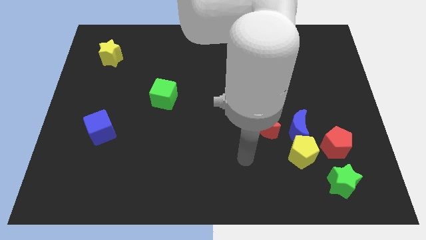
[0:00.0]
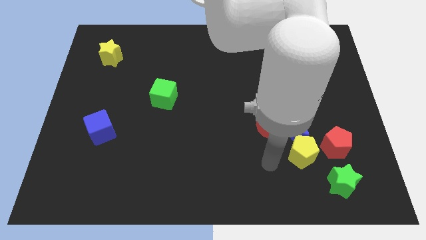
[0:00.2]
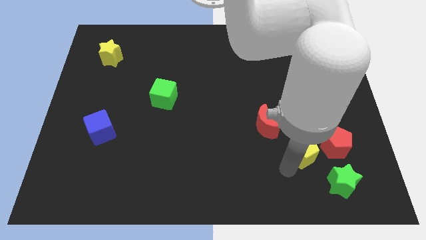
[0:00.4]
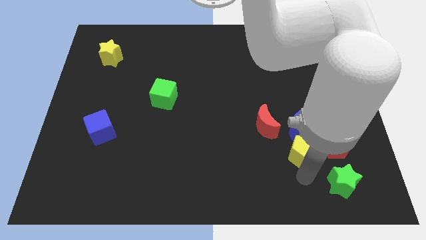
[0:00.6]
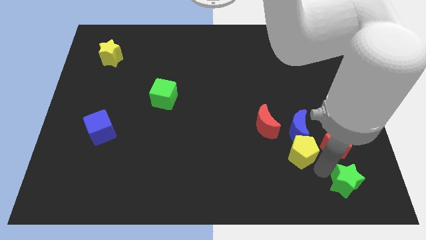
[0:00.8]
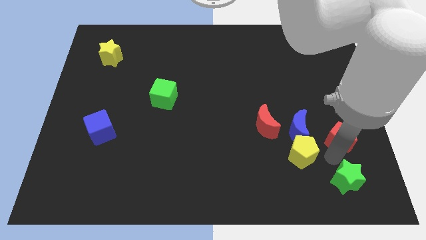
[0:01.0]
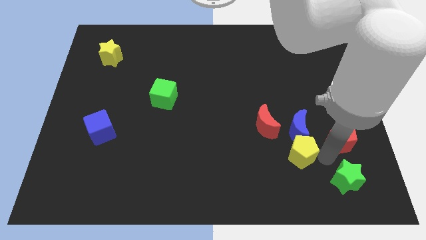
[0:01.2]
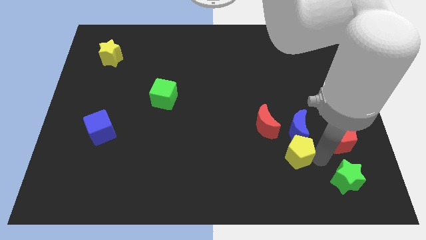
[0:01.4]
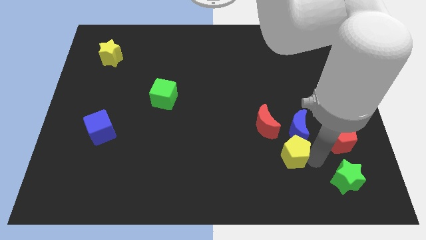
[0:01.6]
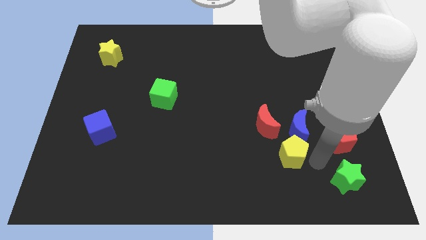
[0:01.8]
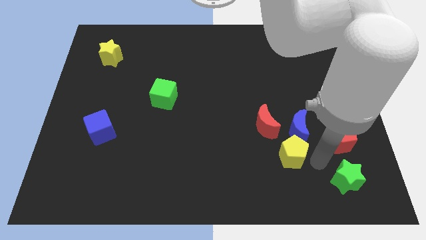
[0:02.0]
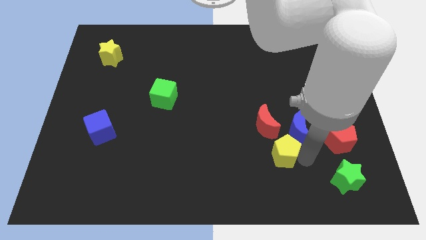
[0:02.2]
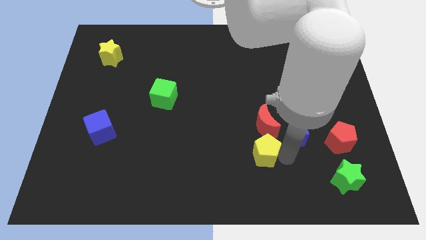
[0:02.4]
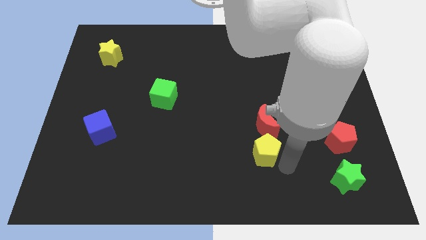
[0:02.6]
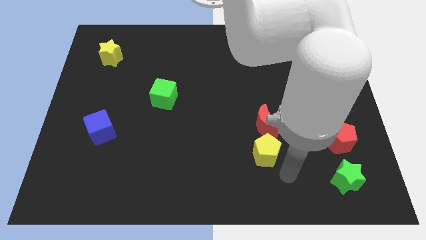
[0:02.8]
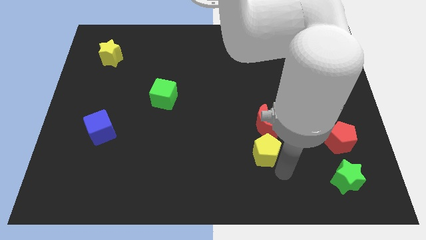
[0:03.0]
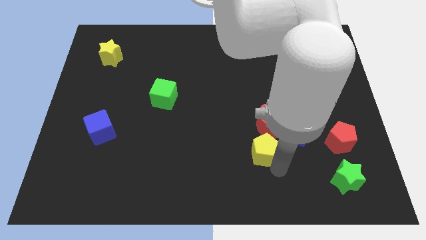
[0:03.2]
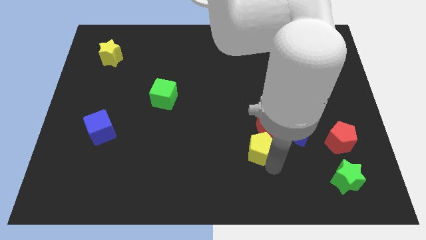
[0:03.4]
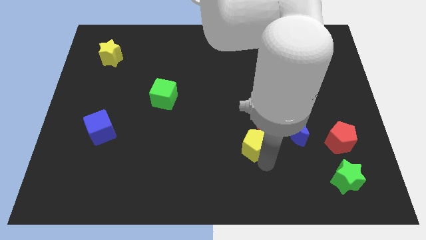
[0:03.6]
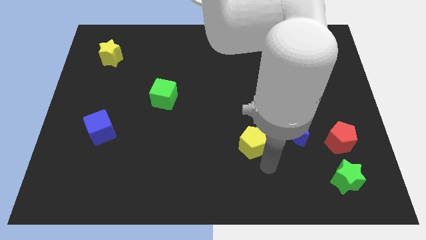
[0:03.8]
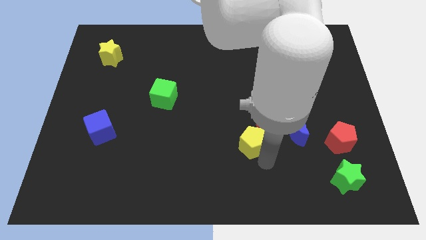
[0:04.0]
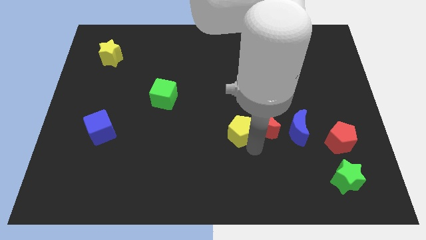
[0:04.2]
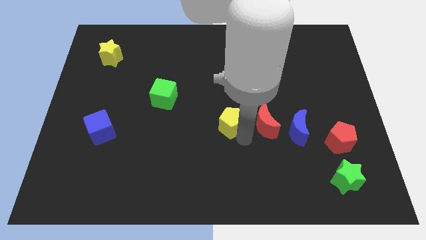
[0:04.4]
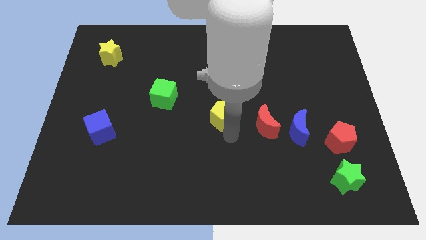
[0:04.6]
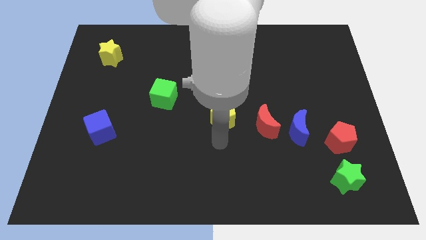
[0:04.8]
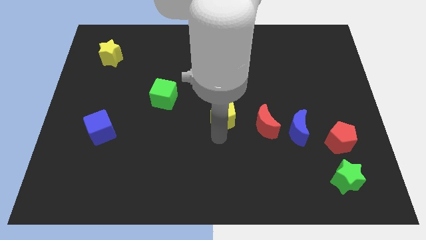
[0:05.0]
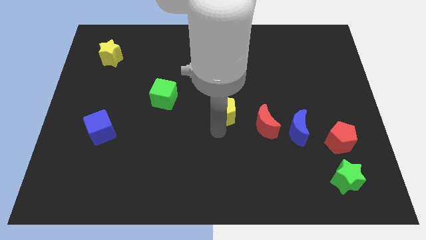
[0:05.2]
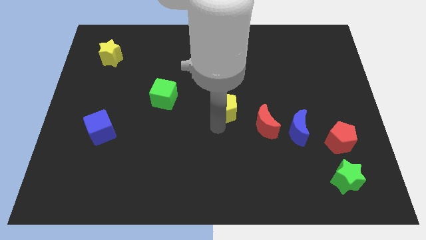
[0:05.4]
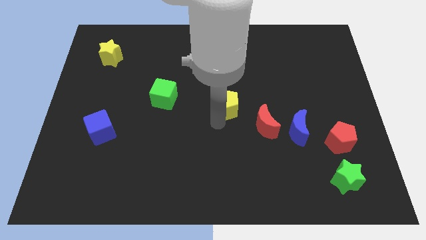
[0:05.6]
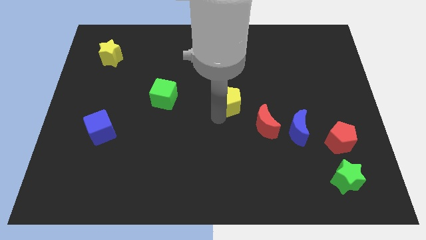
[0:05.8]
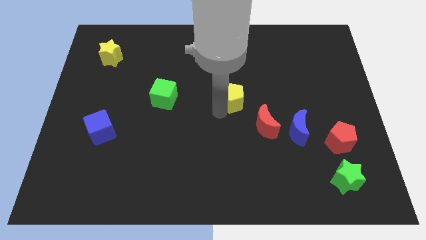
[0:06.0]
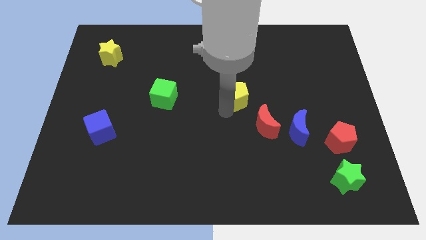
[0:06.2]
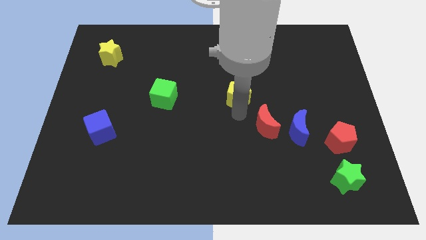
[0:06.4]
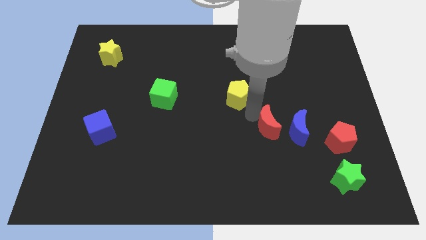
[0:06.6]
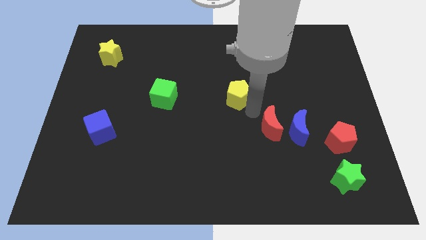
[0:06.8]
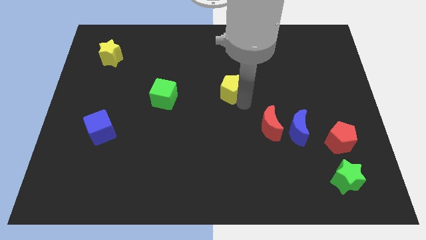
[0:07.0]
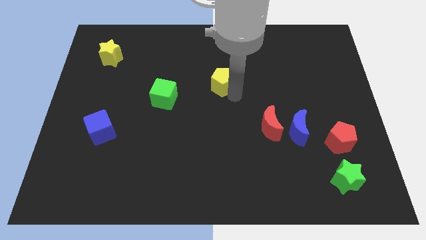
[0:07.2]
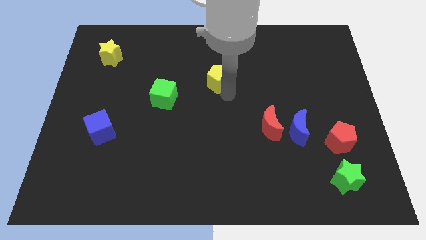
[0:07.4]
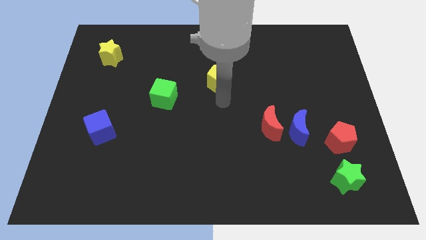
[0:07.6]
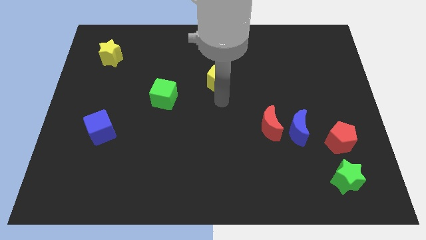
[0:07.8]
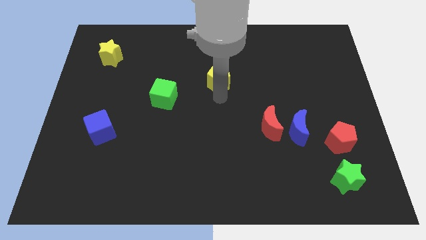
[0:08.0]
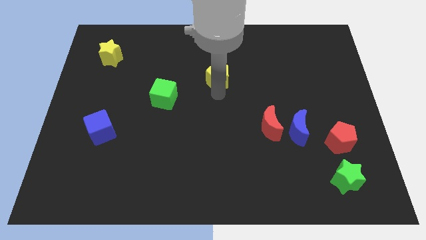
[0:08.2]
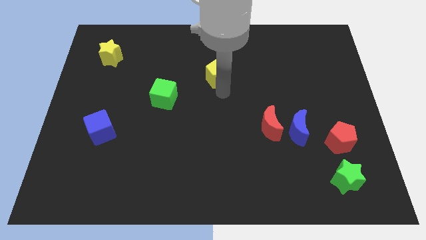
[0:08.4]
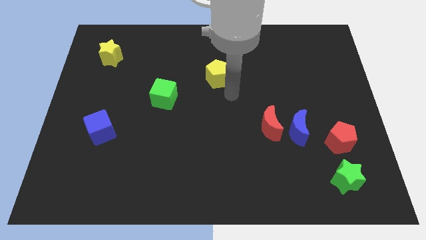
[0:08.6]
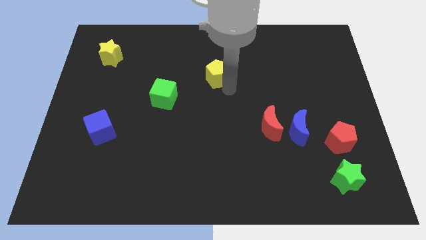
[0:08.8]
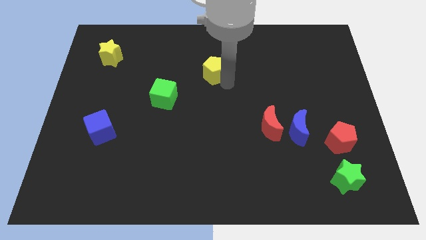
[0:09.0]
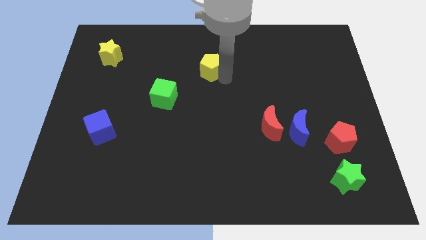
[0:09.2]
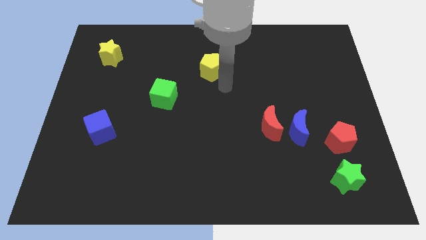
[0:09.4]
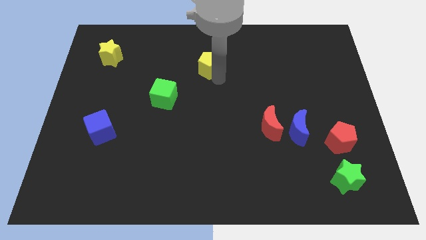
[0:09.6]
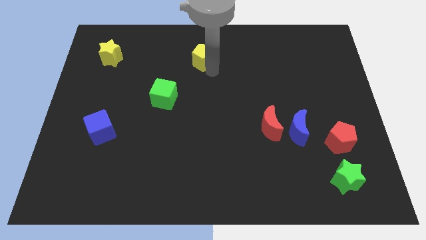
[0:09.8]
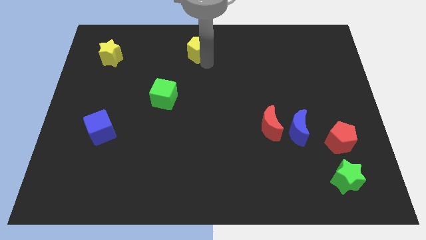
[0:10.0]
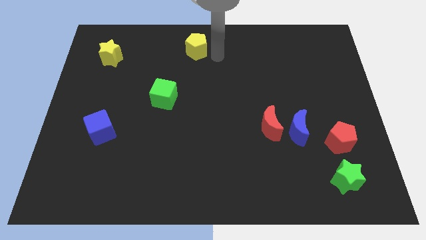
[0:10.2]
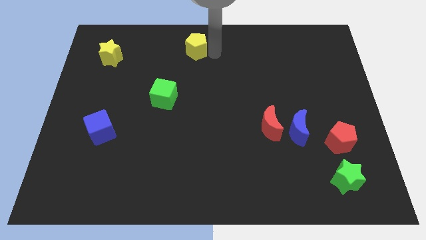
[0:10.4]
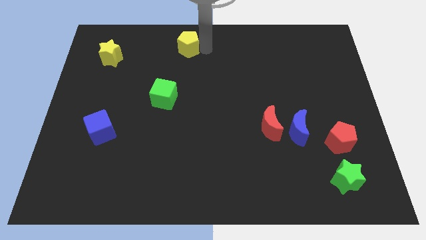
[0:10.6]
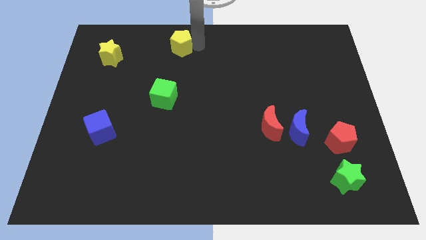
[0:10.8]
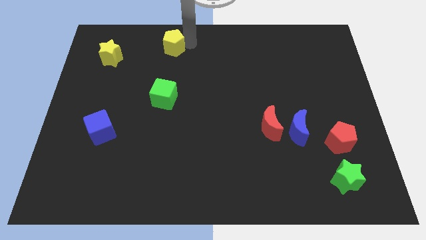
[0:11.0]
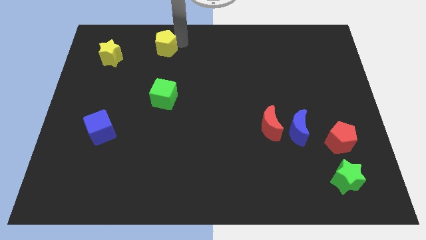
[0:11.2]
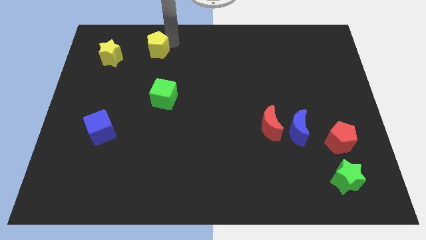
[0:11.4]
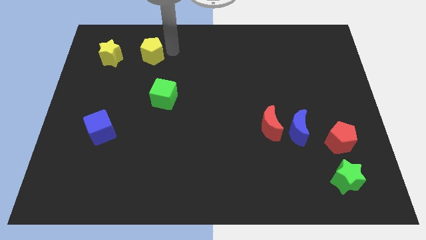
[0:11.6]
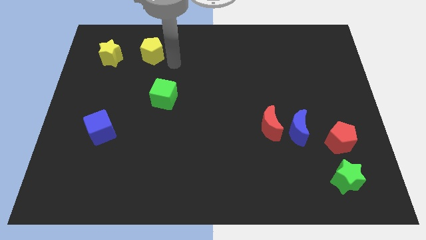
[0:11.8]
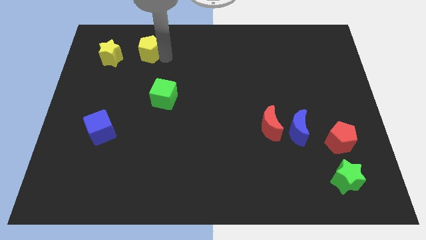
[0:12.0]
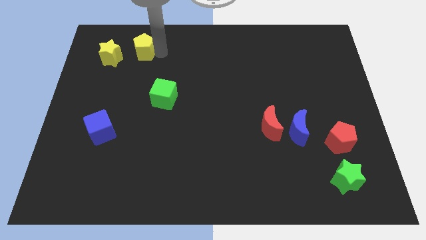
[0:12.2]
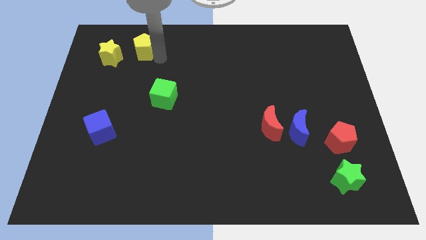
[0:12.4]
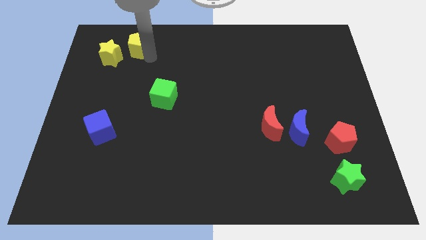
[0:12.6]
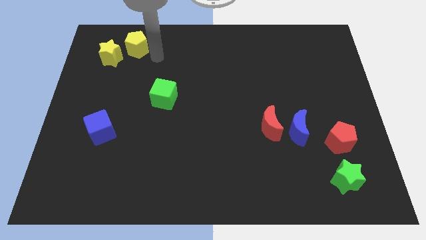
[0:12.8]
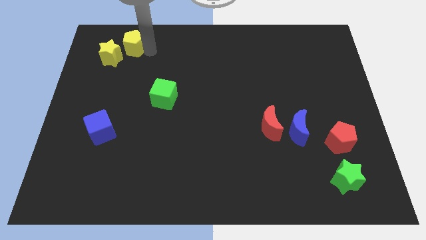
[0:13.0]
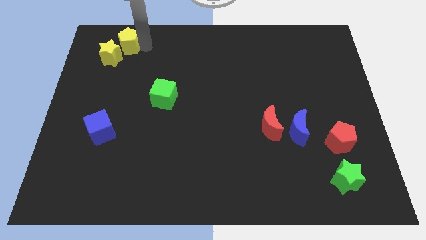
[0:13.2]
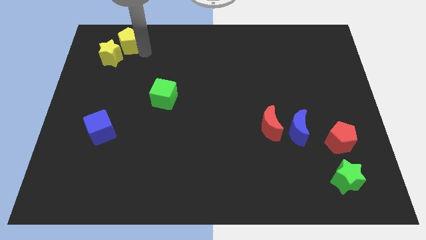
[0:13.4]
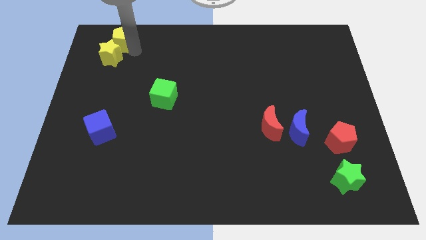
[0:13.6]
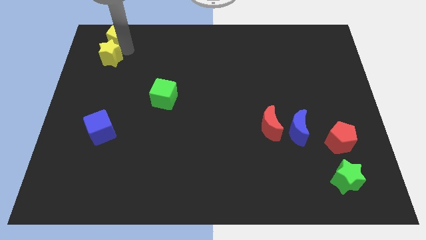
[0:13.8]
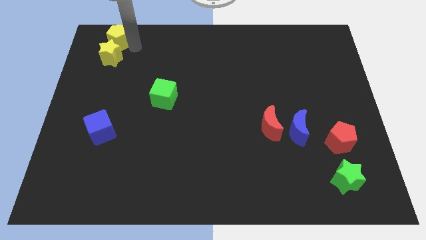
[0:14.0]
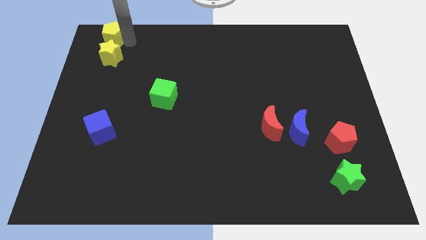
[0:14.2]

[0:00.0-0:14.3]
move the yellow pentagon to the upper left corner
